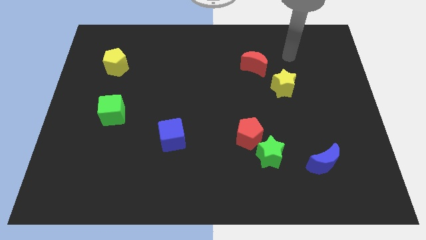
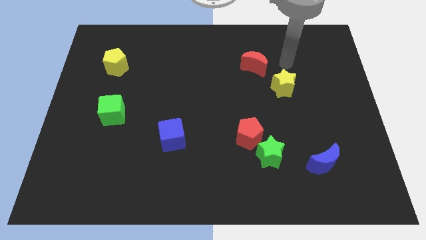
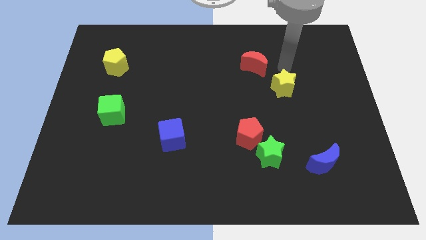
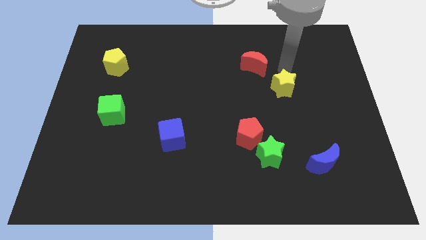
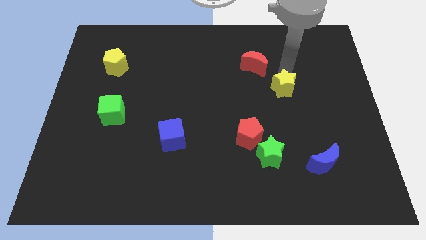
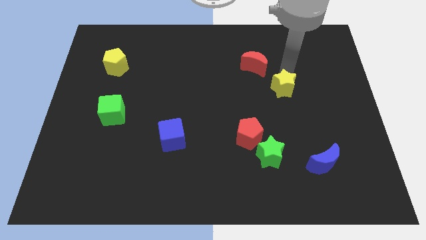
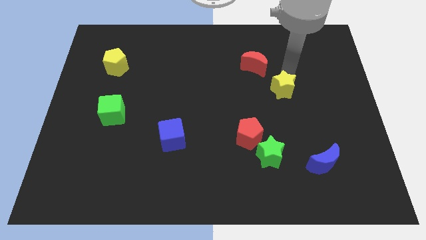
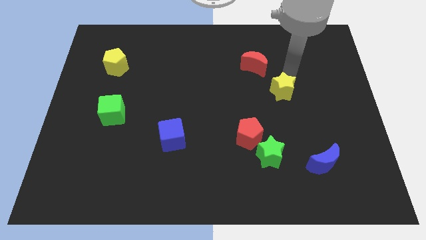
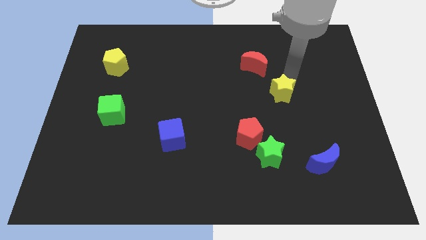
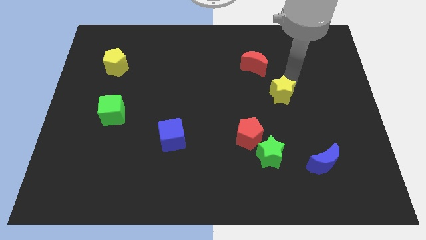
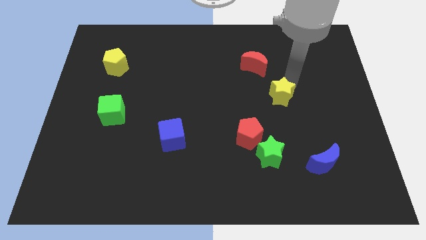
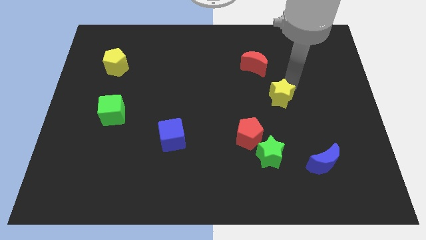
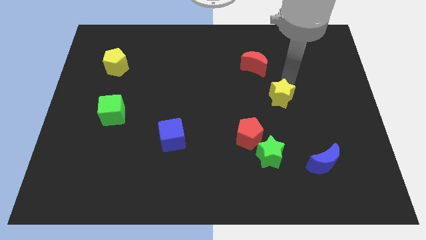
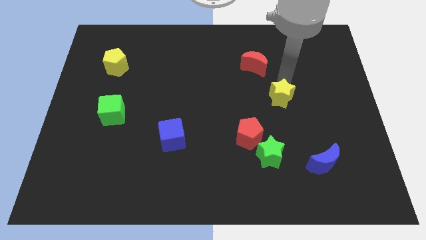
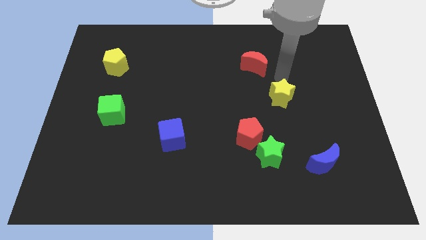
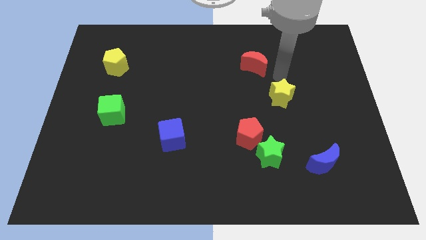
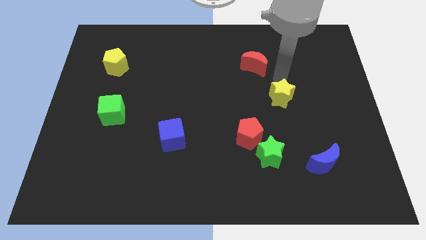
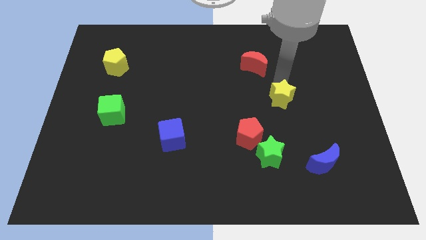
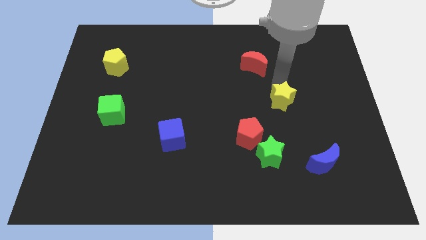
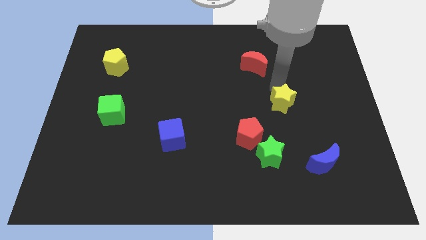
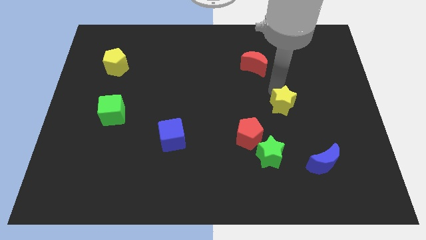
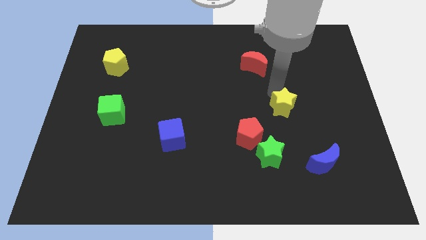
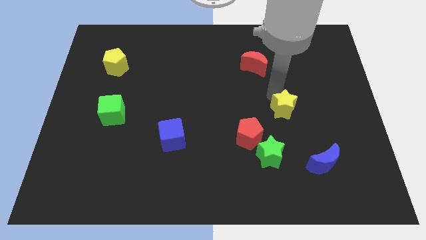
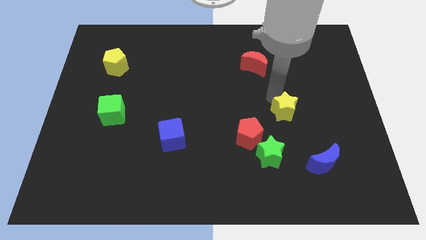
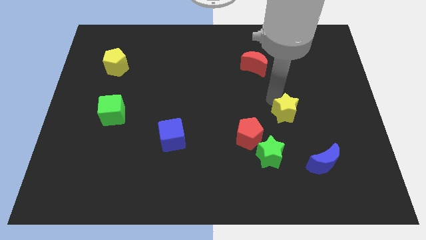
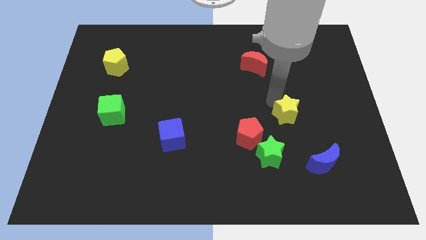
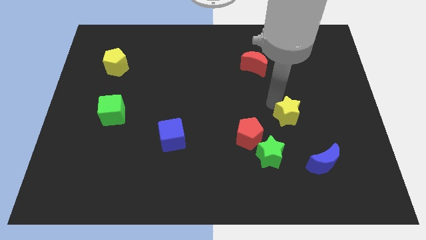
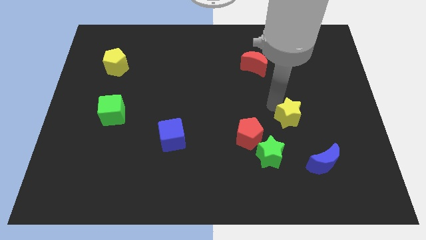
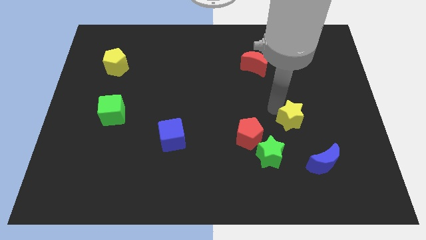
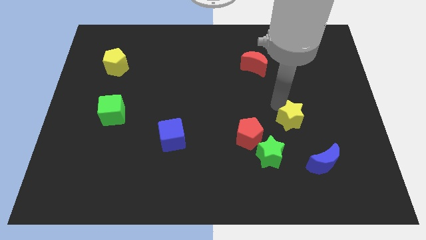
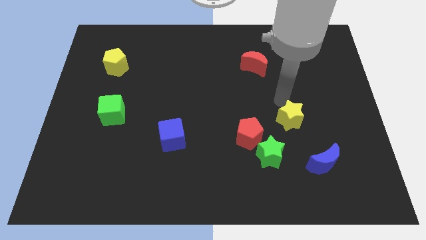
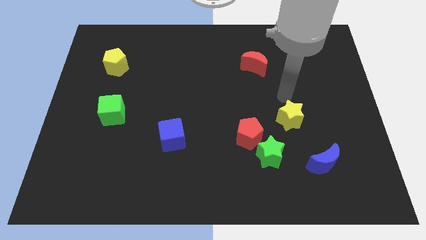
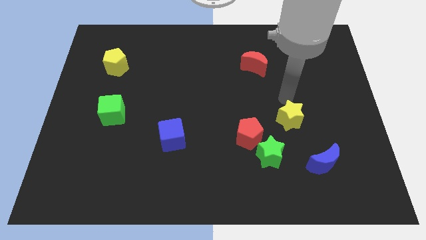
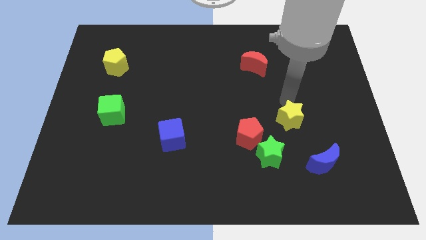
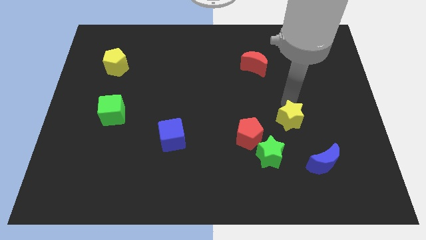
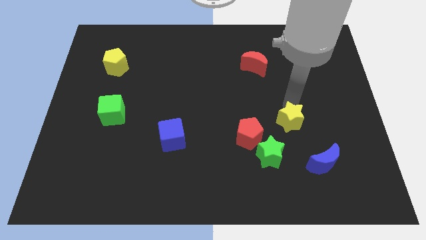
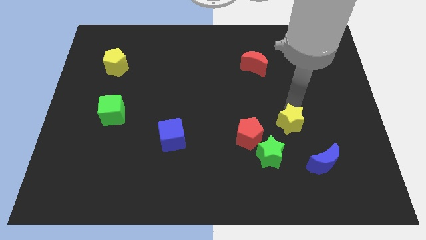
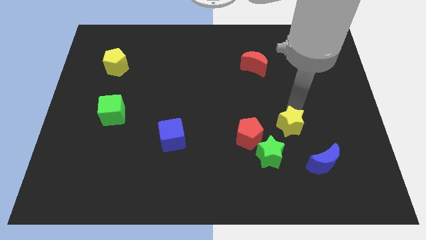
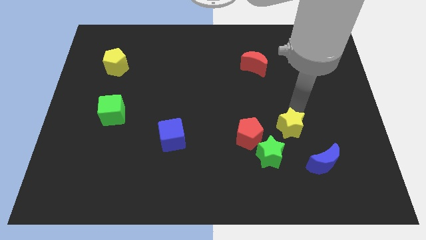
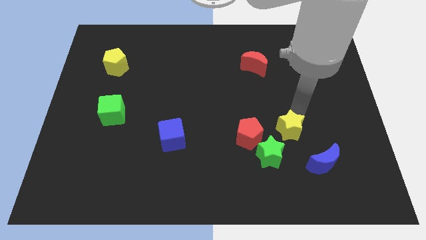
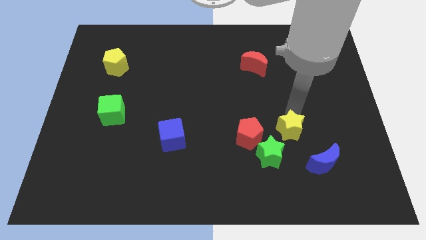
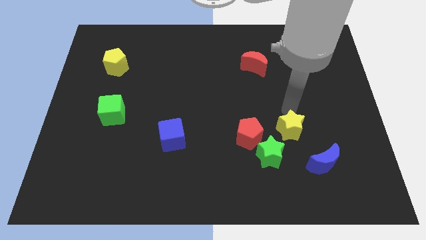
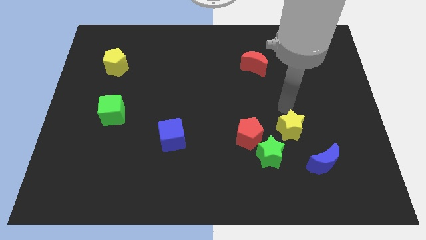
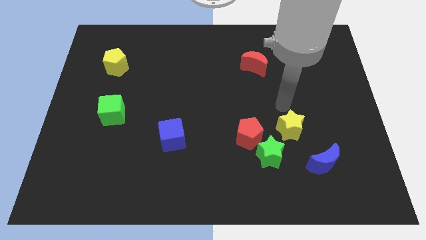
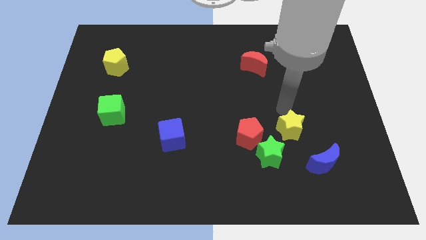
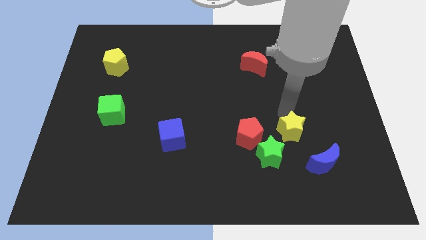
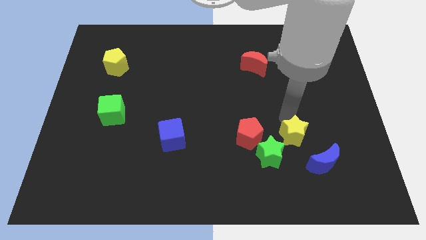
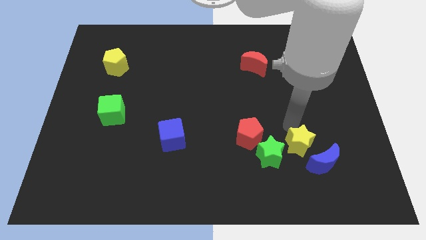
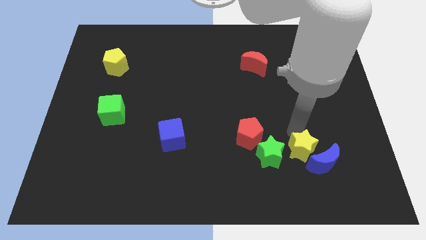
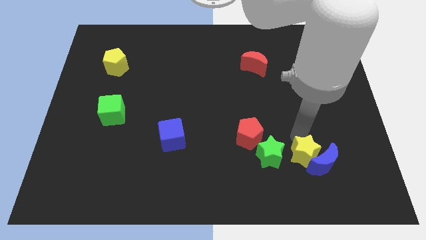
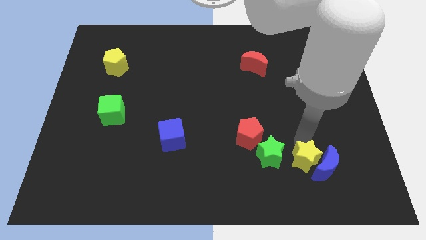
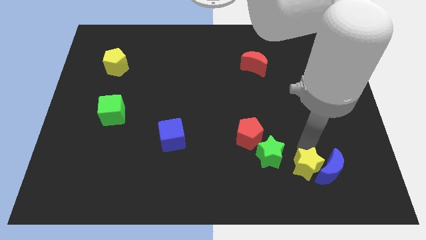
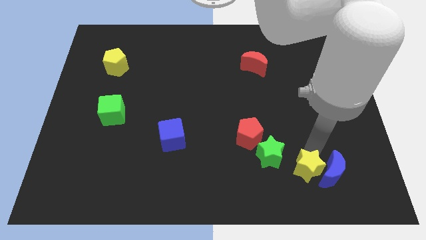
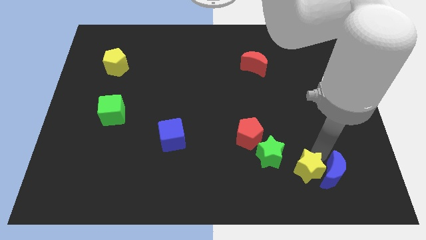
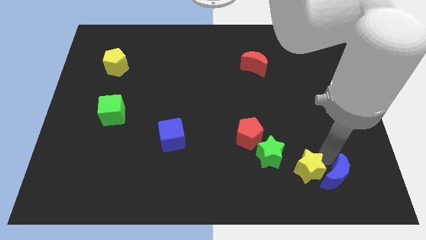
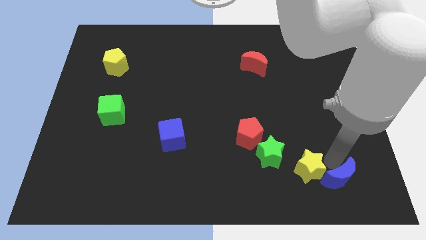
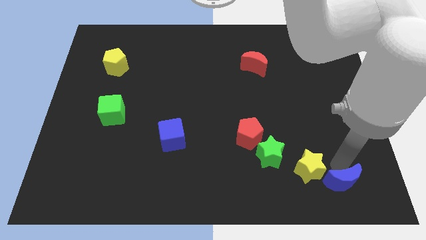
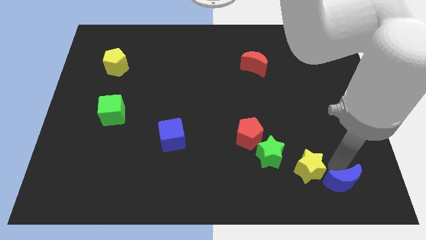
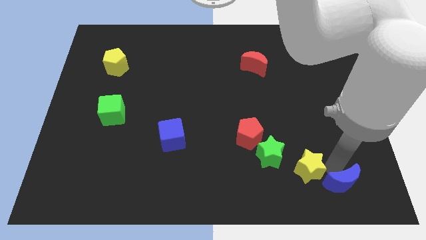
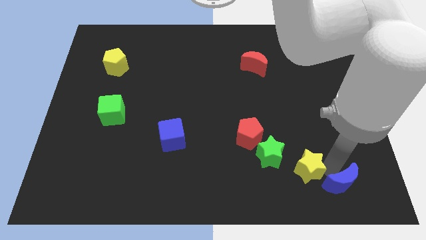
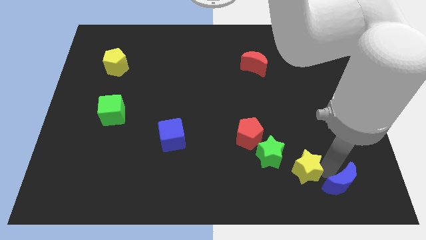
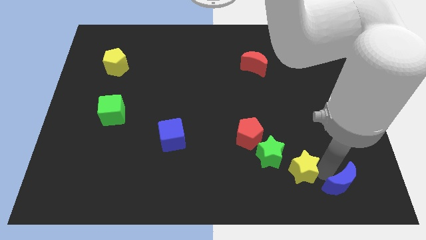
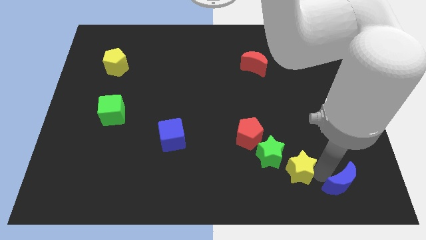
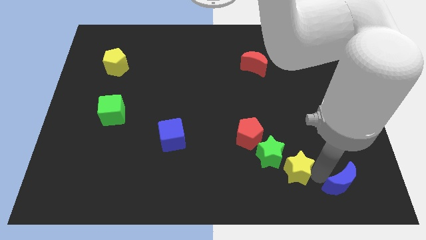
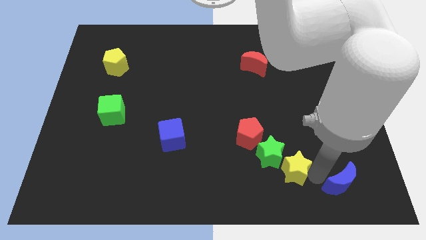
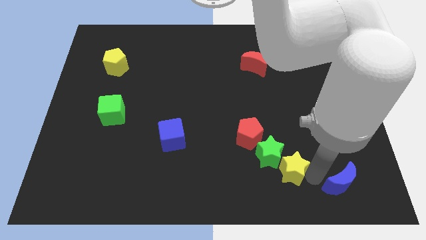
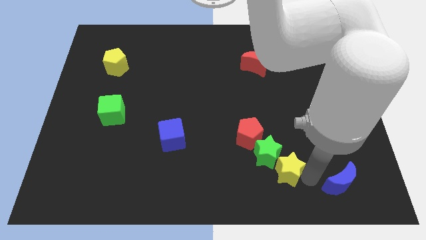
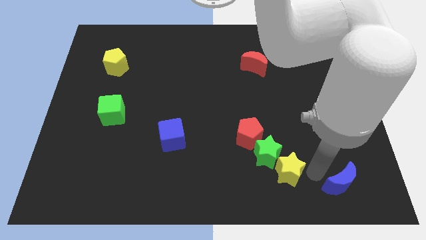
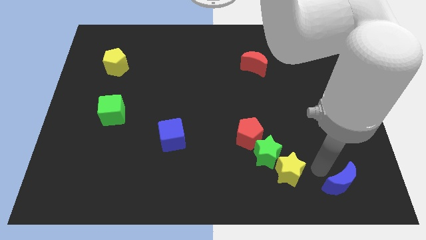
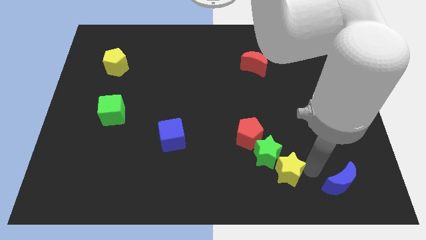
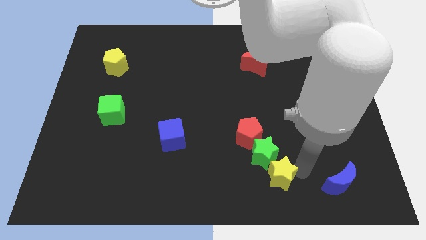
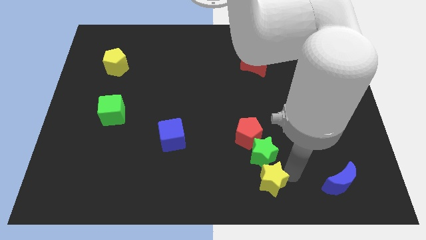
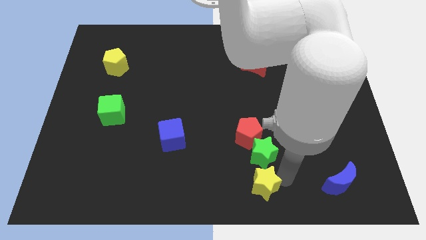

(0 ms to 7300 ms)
put the yellow star to the bottom left side of the green star

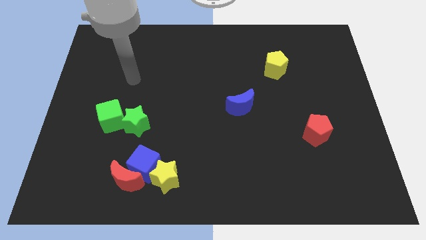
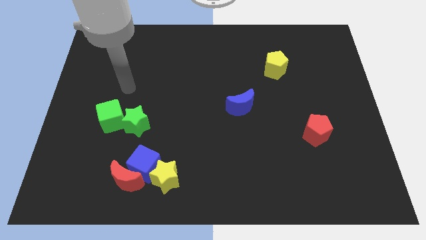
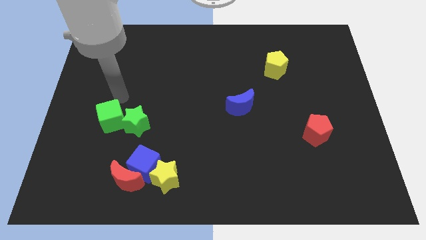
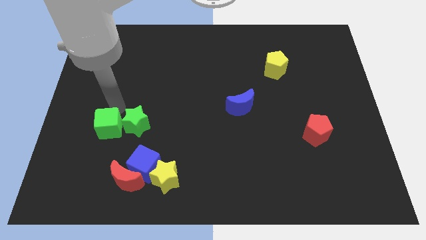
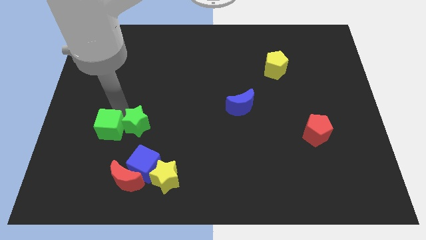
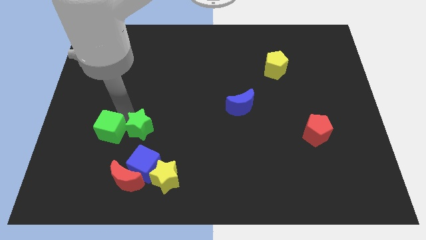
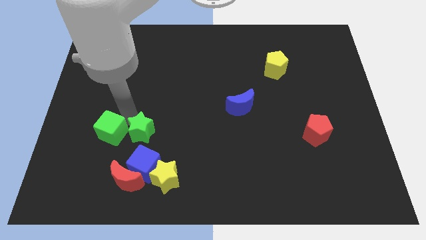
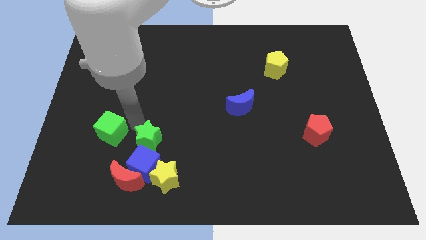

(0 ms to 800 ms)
slide the green star diagonally up and to the right of the red moon
